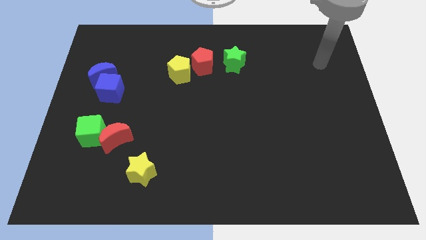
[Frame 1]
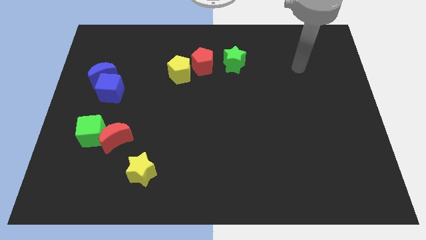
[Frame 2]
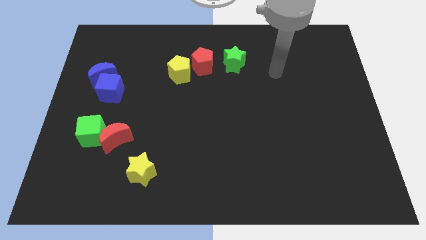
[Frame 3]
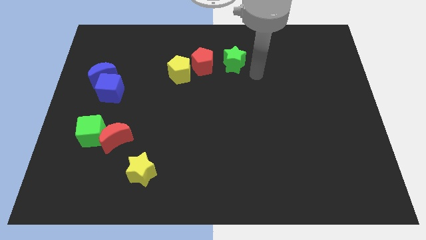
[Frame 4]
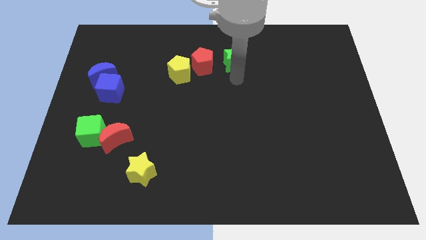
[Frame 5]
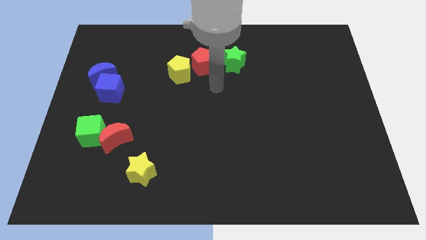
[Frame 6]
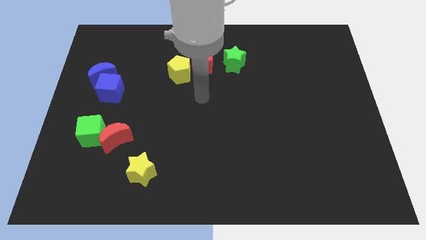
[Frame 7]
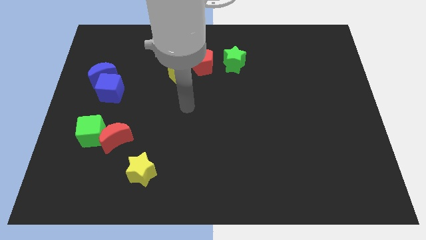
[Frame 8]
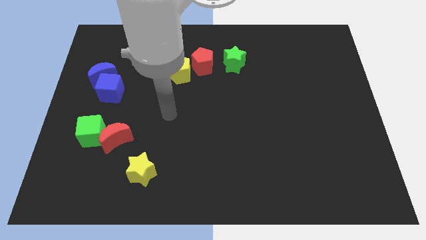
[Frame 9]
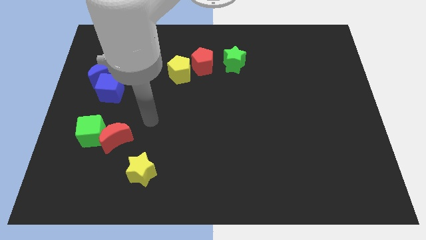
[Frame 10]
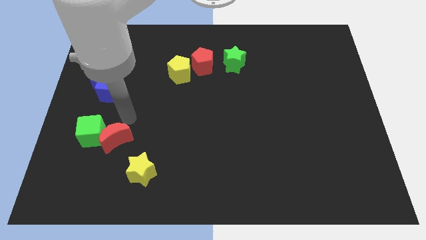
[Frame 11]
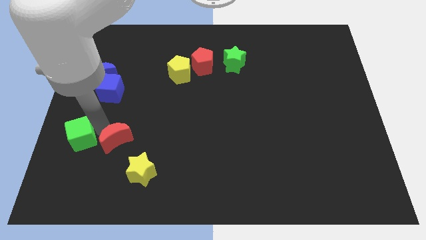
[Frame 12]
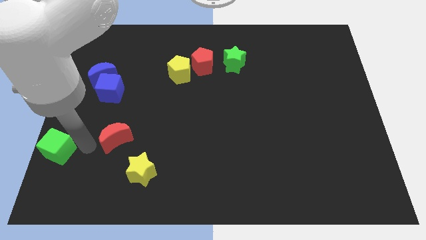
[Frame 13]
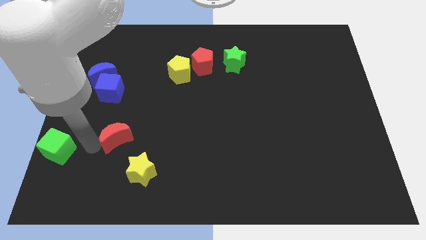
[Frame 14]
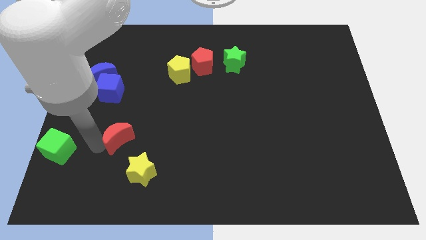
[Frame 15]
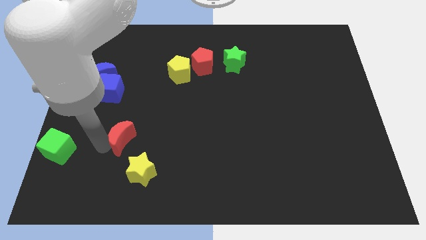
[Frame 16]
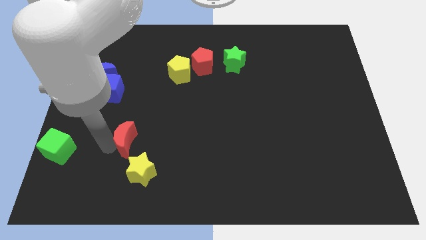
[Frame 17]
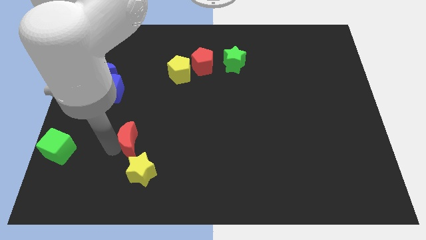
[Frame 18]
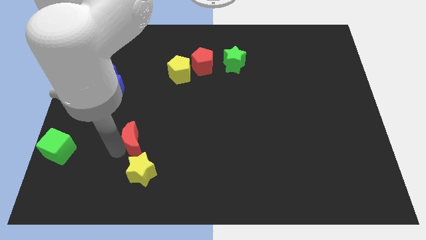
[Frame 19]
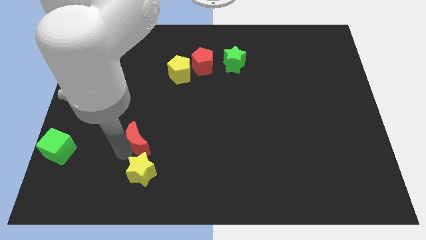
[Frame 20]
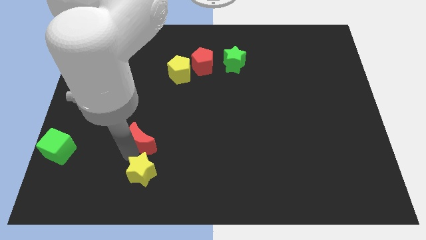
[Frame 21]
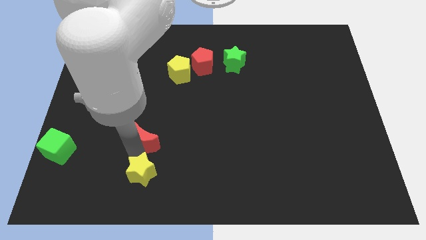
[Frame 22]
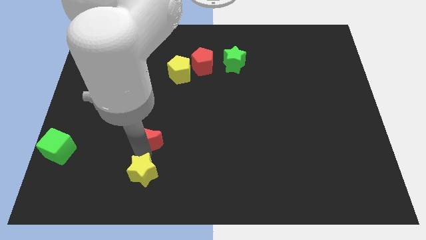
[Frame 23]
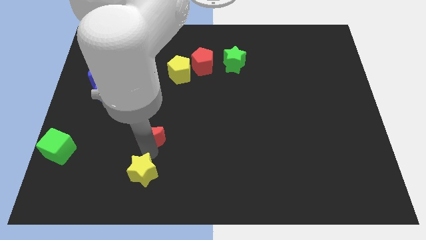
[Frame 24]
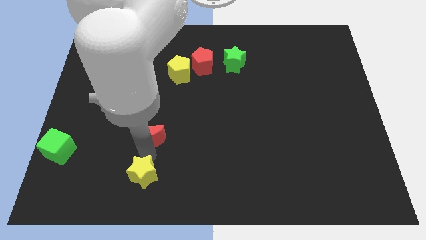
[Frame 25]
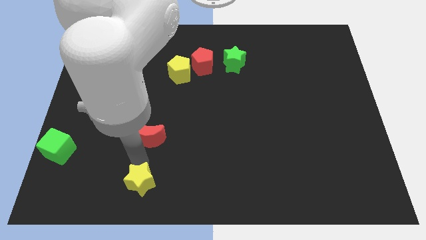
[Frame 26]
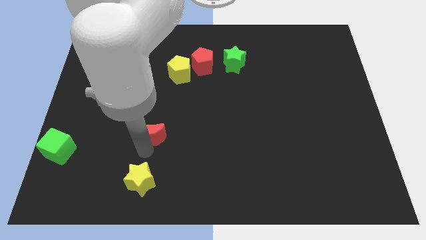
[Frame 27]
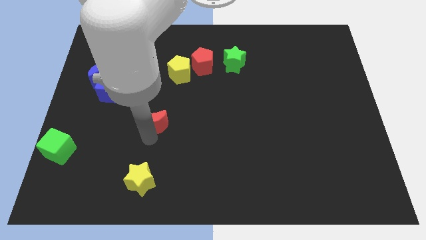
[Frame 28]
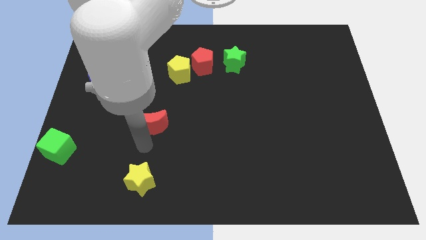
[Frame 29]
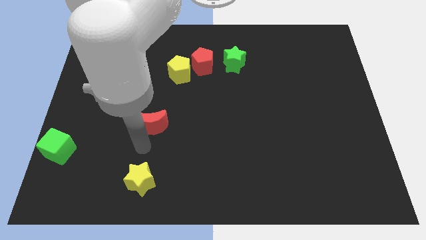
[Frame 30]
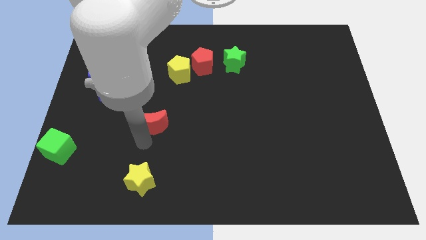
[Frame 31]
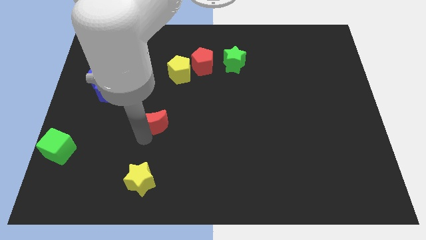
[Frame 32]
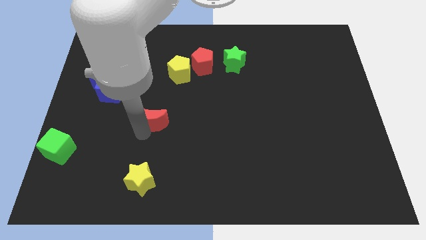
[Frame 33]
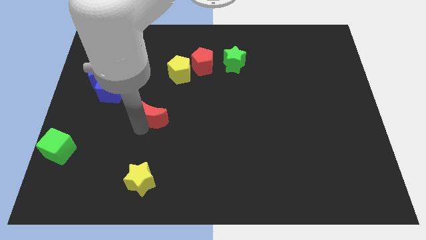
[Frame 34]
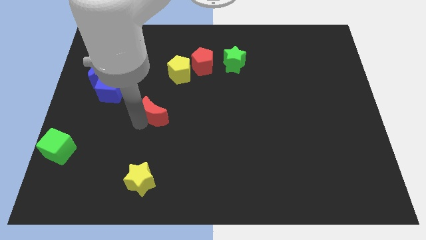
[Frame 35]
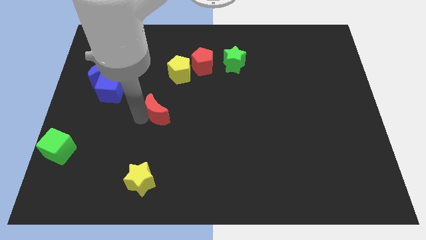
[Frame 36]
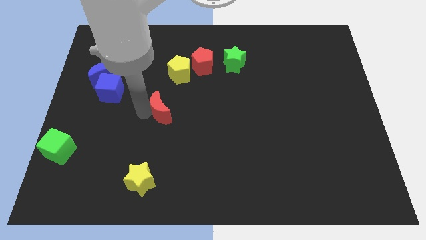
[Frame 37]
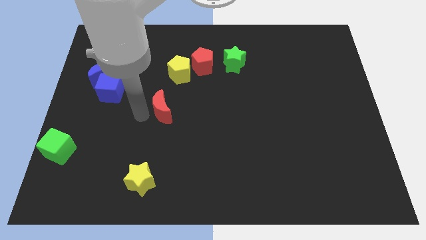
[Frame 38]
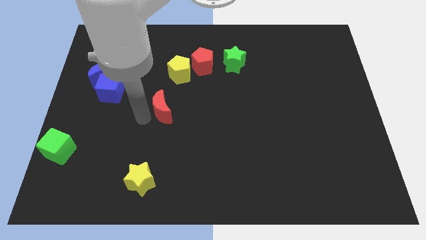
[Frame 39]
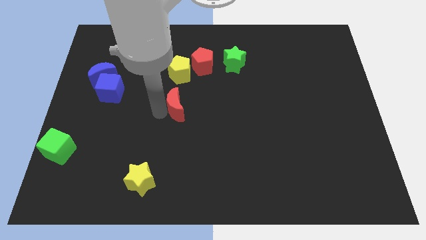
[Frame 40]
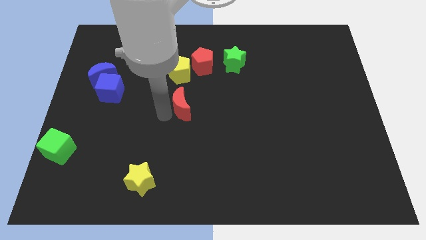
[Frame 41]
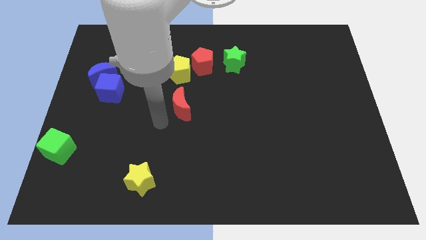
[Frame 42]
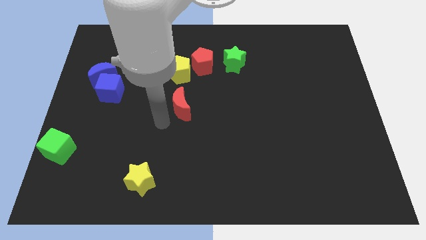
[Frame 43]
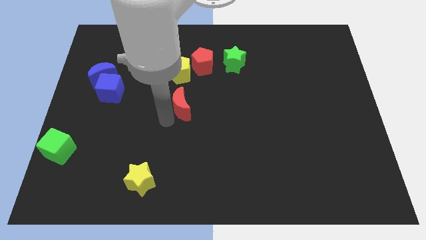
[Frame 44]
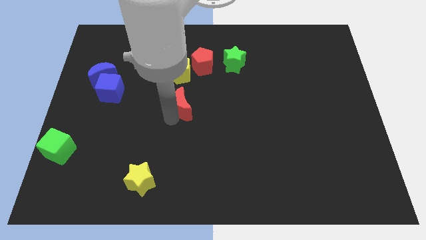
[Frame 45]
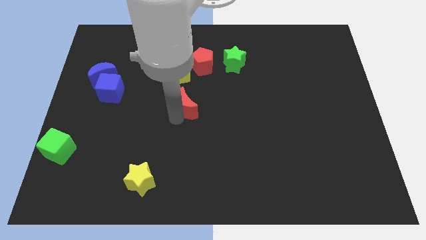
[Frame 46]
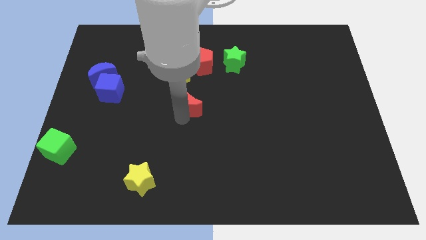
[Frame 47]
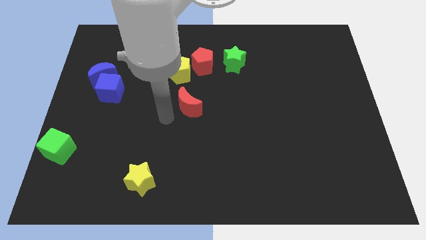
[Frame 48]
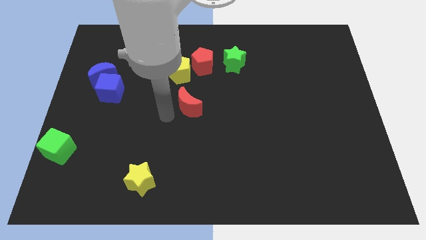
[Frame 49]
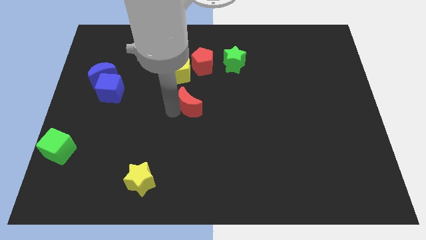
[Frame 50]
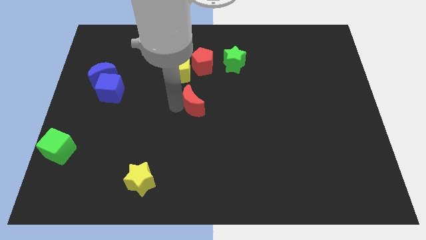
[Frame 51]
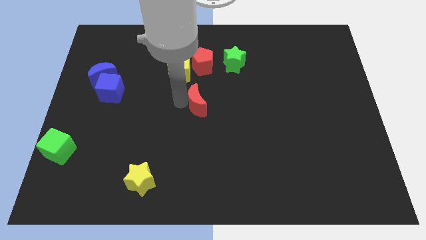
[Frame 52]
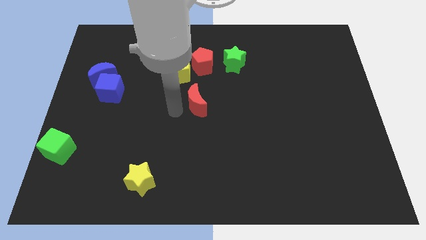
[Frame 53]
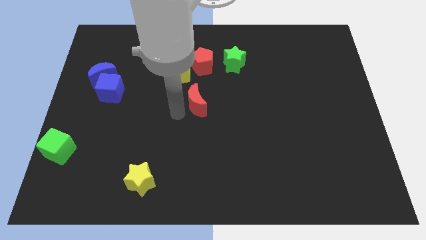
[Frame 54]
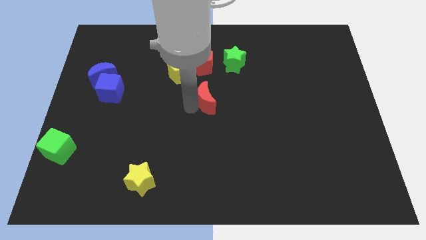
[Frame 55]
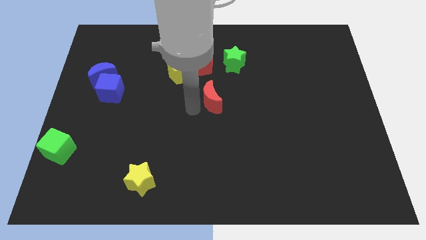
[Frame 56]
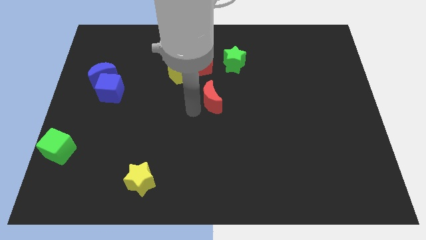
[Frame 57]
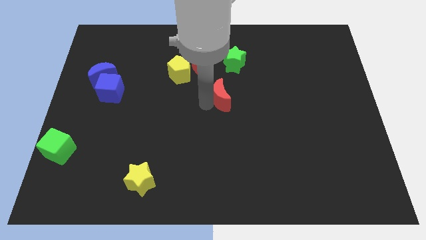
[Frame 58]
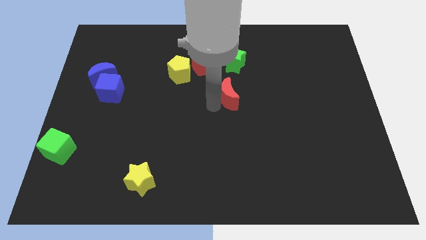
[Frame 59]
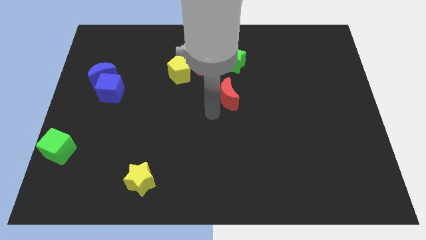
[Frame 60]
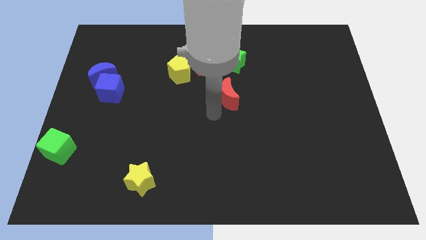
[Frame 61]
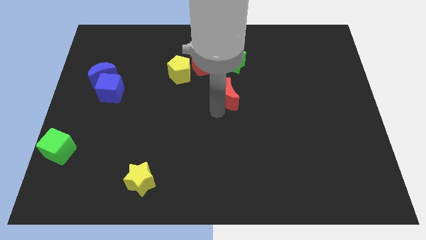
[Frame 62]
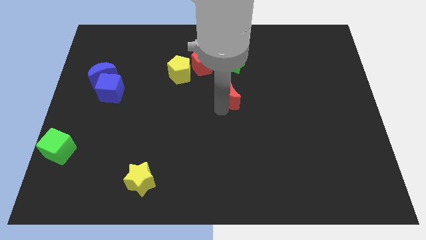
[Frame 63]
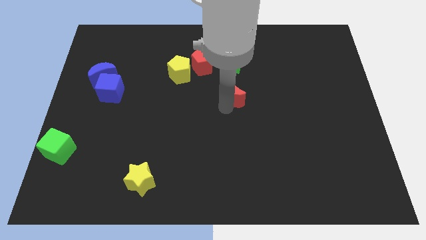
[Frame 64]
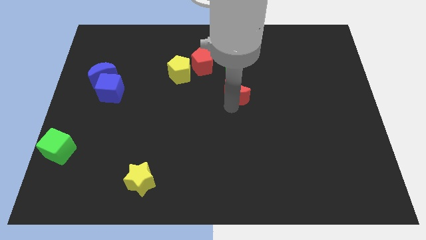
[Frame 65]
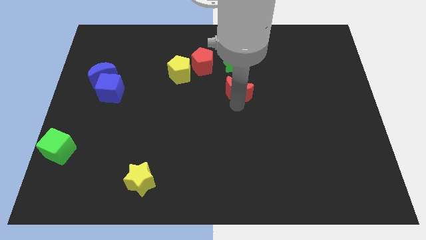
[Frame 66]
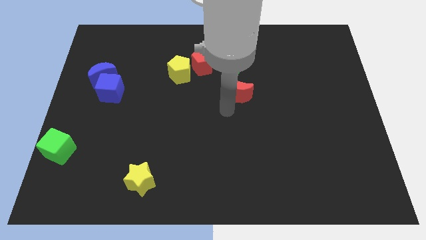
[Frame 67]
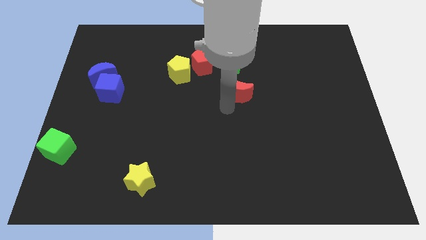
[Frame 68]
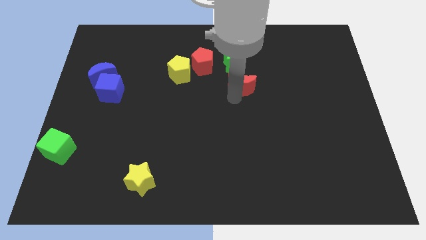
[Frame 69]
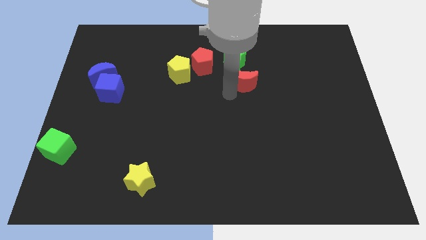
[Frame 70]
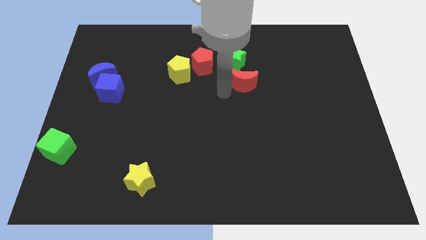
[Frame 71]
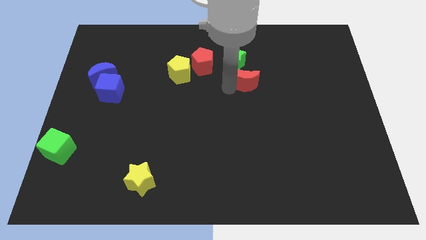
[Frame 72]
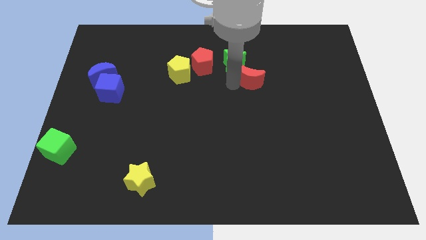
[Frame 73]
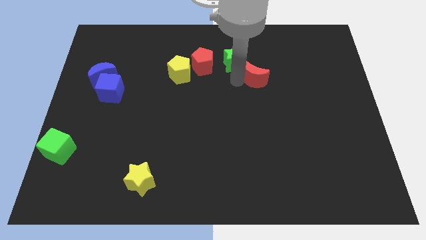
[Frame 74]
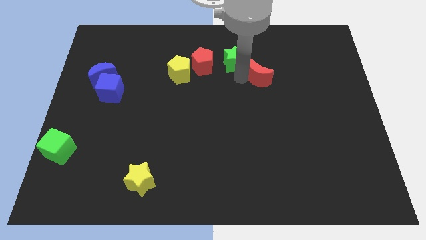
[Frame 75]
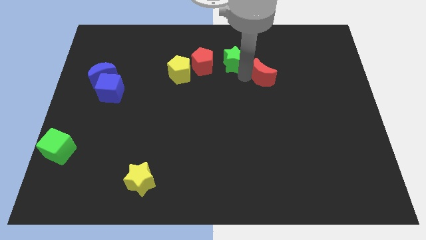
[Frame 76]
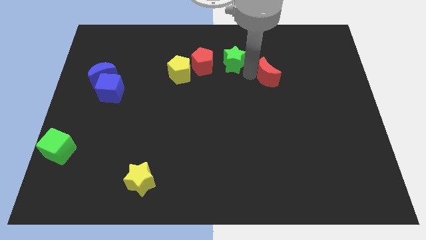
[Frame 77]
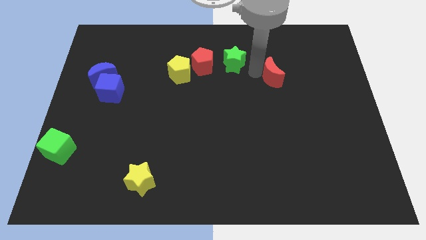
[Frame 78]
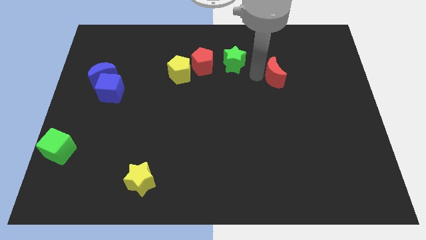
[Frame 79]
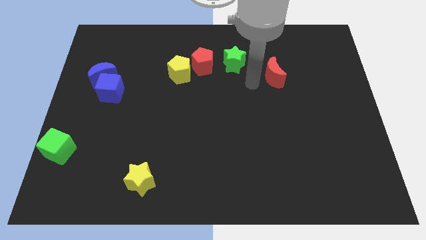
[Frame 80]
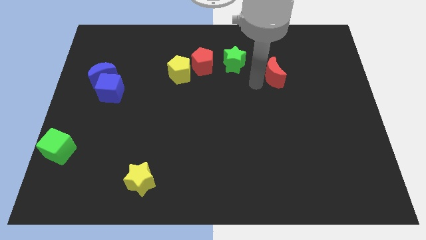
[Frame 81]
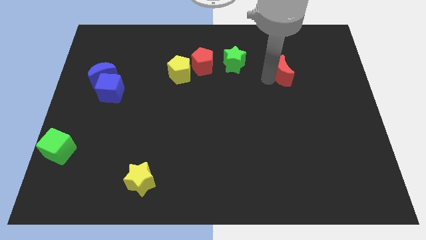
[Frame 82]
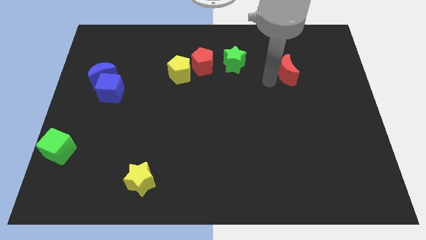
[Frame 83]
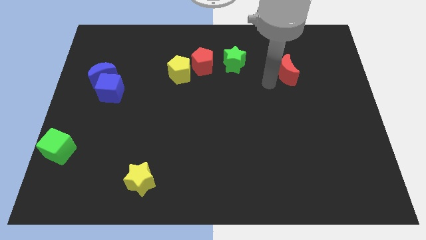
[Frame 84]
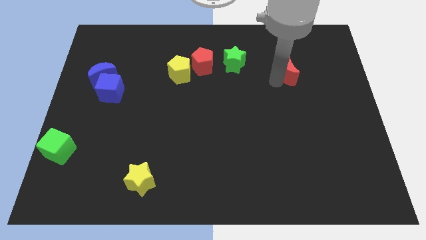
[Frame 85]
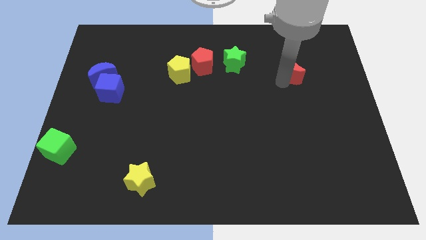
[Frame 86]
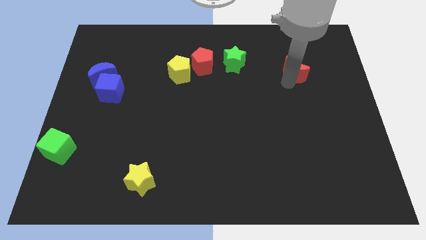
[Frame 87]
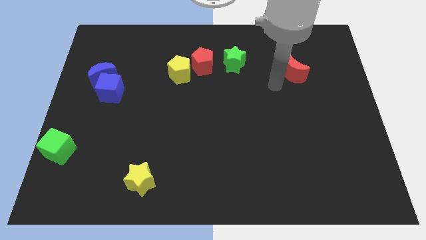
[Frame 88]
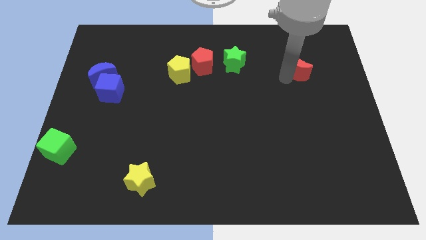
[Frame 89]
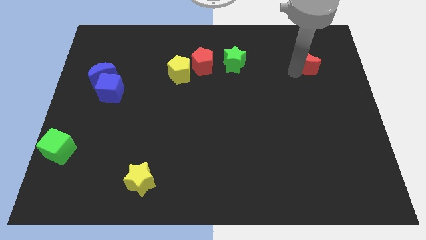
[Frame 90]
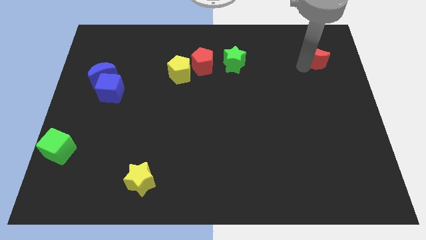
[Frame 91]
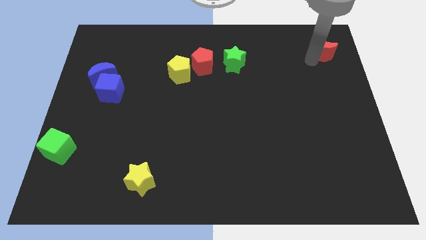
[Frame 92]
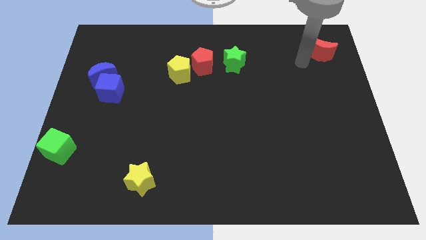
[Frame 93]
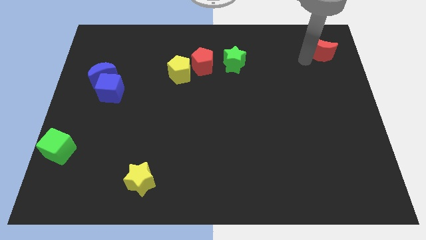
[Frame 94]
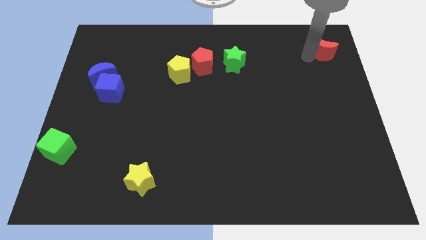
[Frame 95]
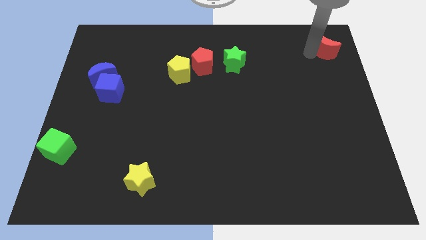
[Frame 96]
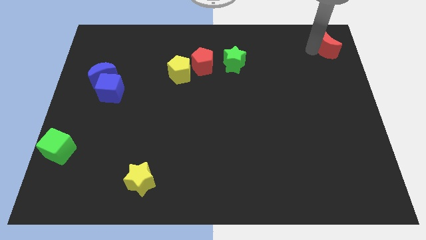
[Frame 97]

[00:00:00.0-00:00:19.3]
push the red moon to the top right corner
